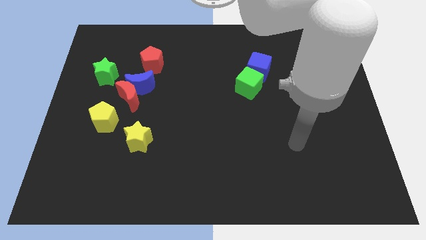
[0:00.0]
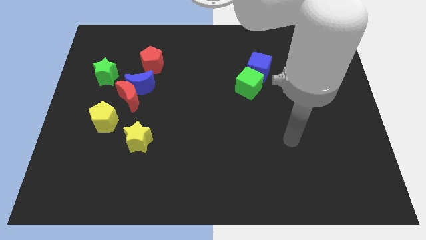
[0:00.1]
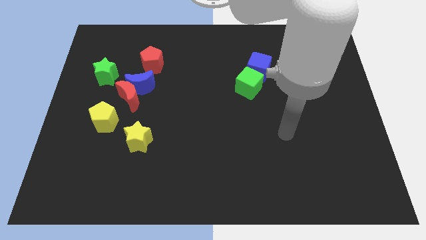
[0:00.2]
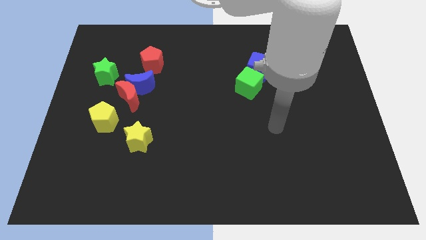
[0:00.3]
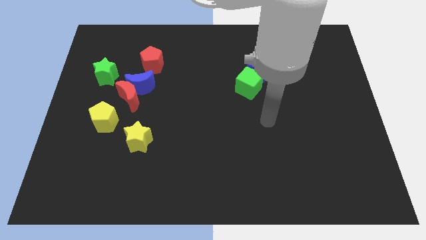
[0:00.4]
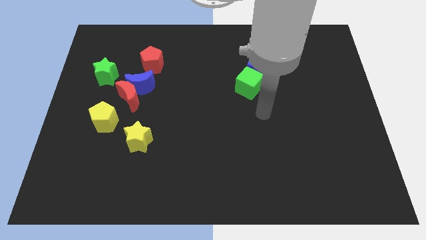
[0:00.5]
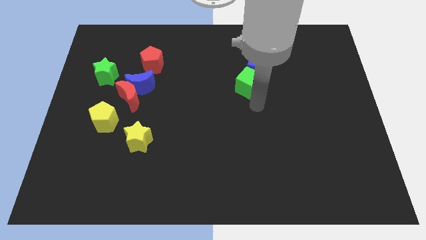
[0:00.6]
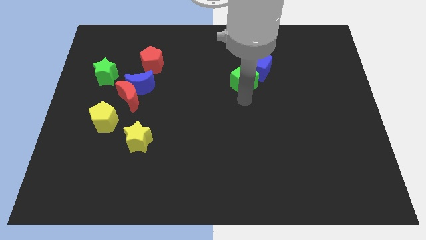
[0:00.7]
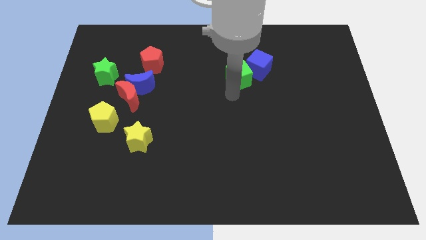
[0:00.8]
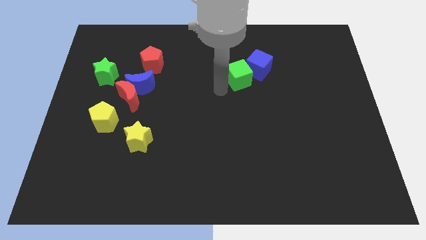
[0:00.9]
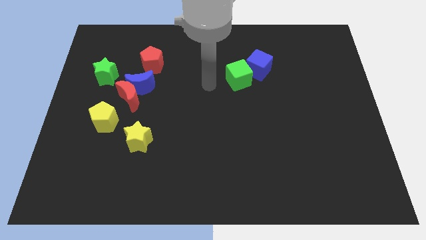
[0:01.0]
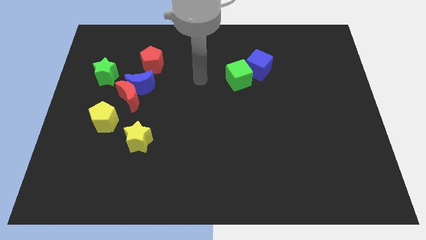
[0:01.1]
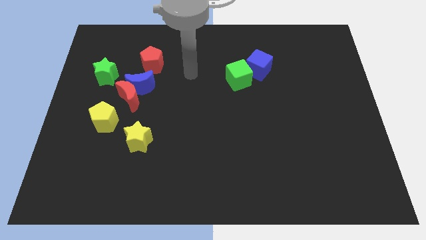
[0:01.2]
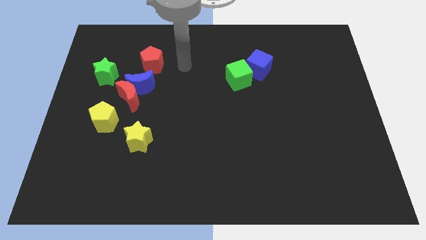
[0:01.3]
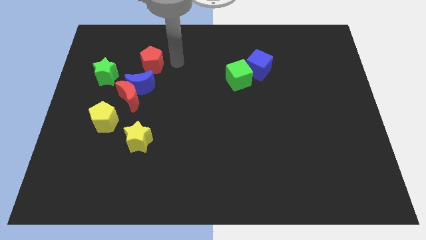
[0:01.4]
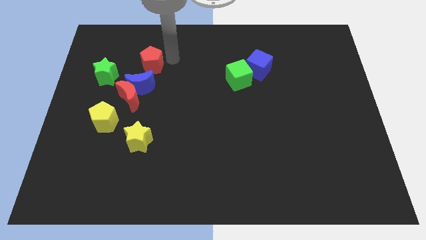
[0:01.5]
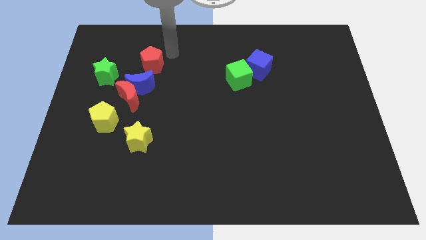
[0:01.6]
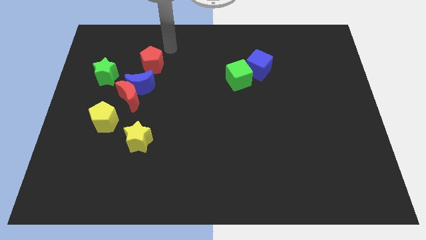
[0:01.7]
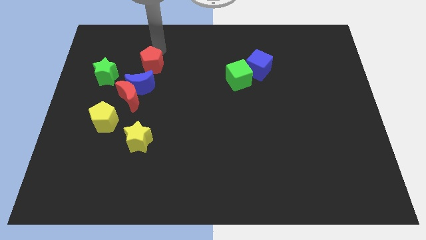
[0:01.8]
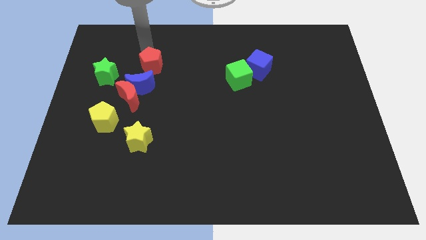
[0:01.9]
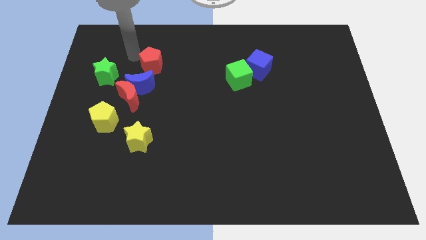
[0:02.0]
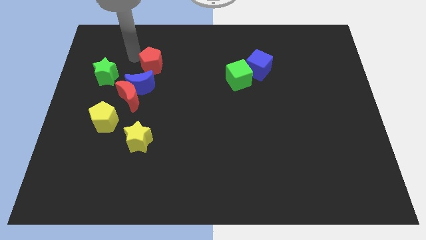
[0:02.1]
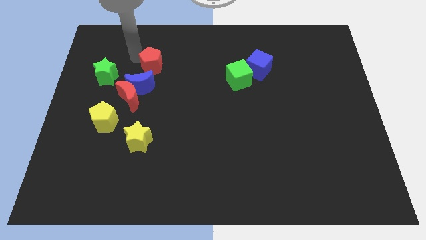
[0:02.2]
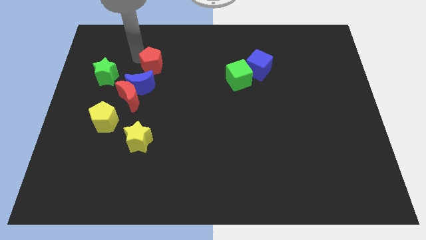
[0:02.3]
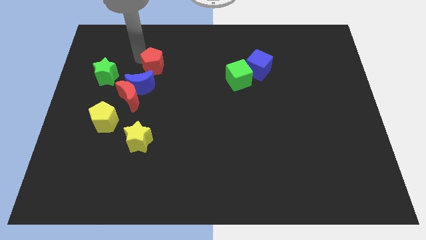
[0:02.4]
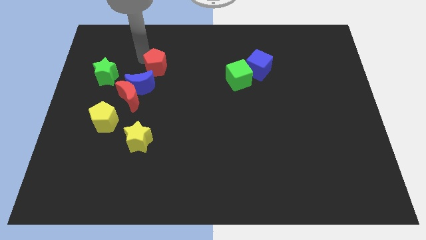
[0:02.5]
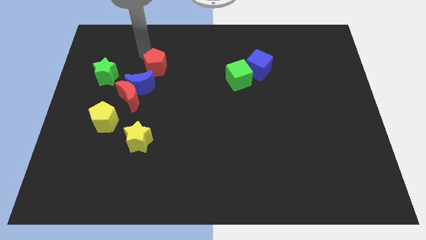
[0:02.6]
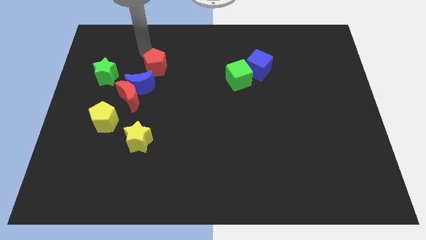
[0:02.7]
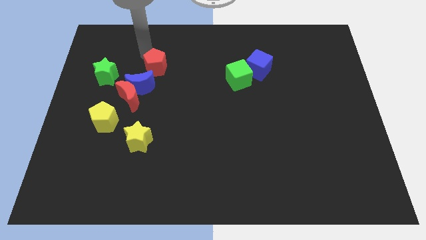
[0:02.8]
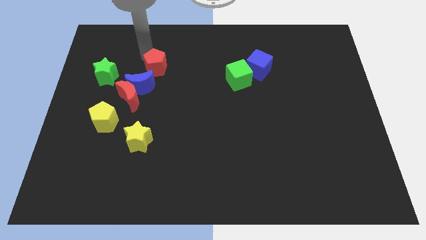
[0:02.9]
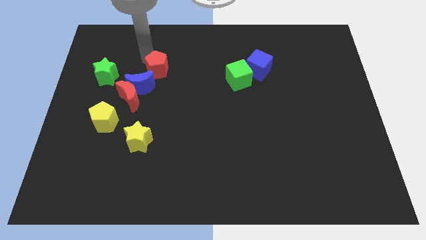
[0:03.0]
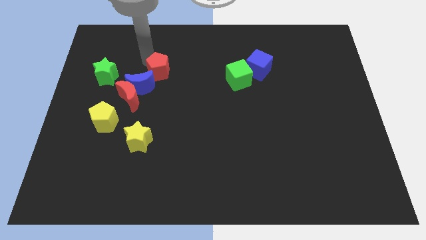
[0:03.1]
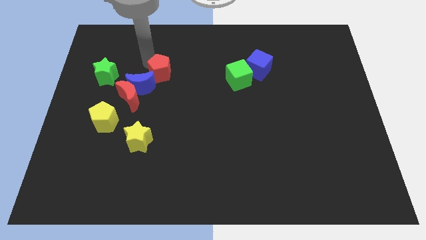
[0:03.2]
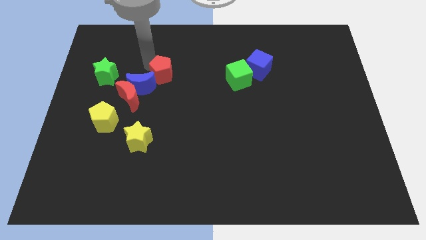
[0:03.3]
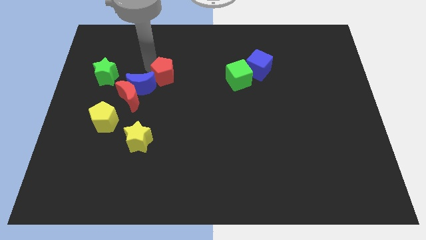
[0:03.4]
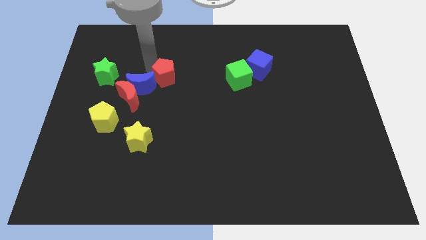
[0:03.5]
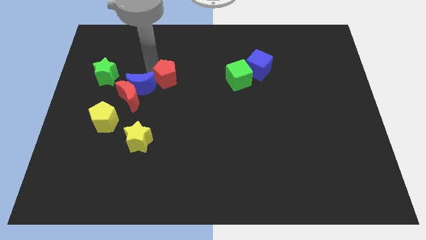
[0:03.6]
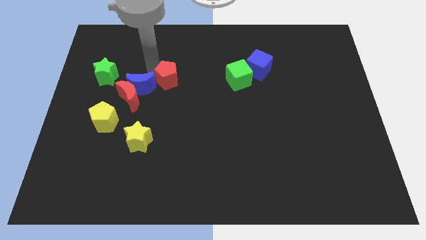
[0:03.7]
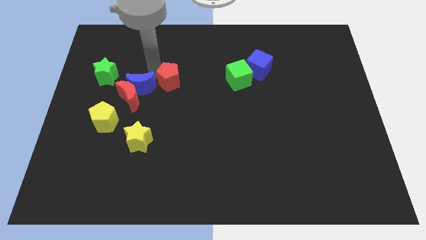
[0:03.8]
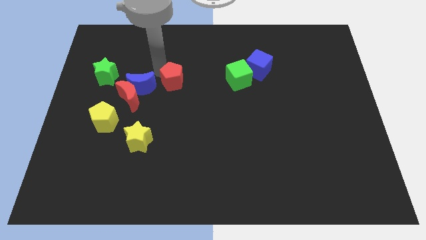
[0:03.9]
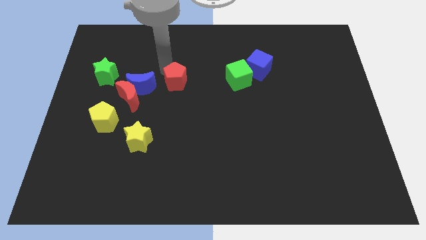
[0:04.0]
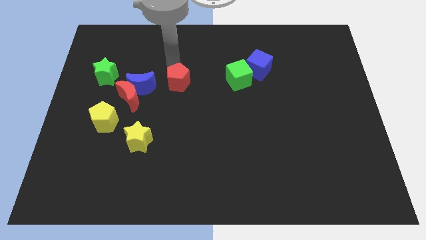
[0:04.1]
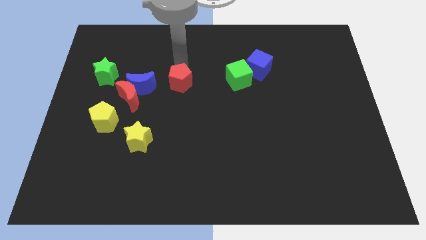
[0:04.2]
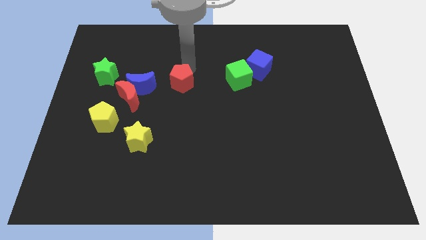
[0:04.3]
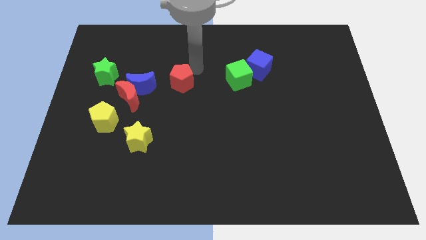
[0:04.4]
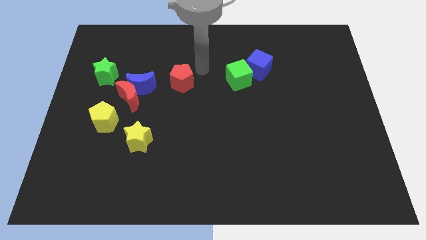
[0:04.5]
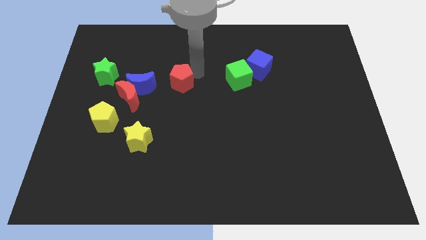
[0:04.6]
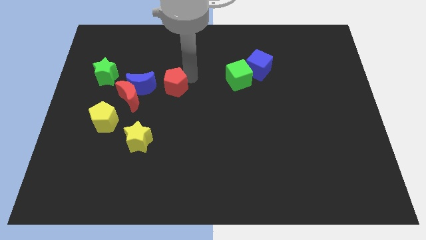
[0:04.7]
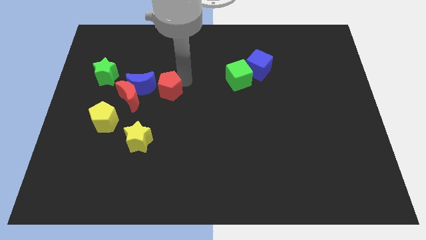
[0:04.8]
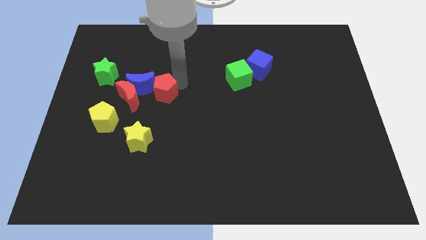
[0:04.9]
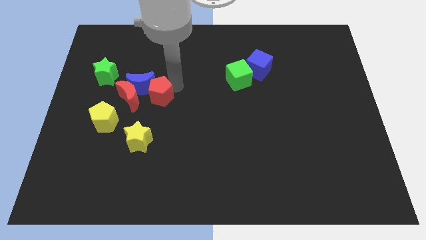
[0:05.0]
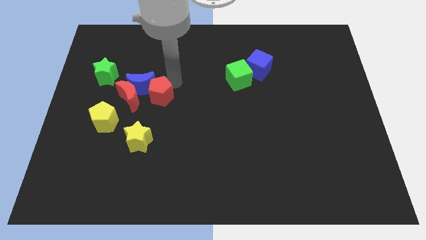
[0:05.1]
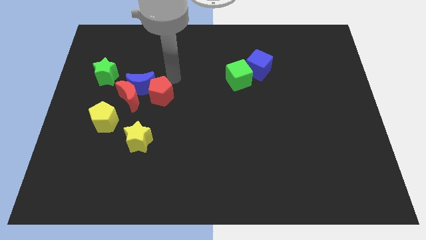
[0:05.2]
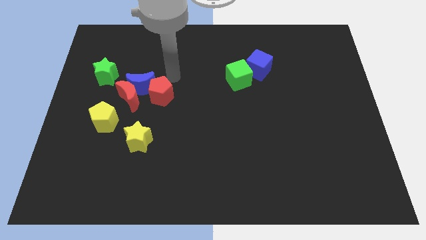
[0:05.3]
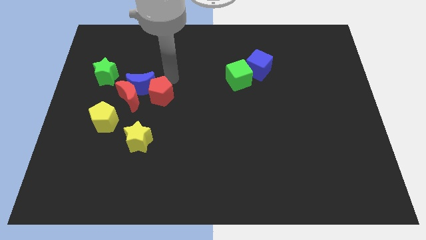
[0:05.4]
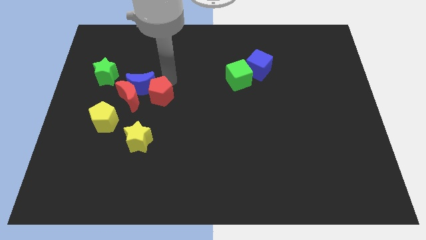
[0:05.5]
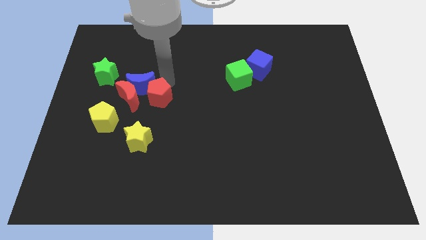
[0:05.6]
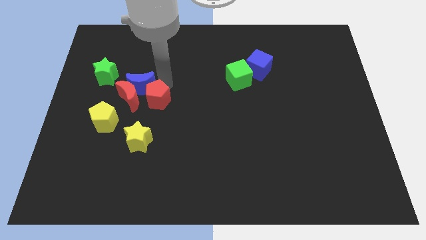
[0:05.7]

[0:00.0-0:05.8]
slide the red pentagon to the bottom right side of the red moon

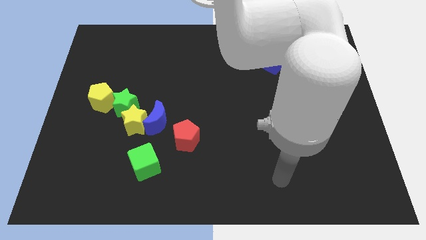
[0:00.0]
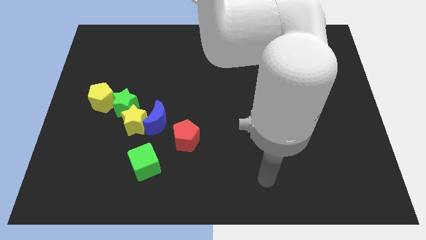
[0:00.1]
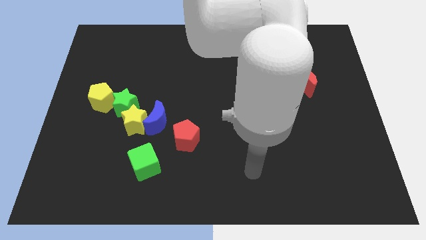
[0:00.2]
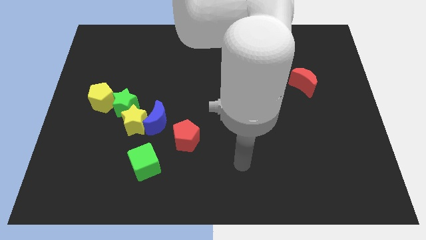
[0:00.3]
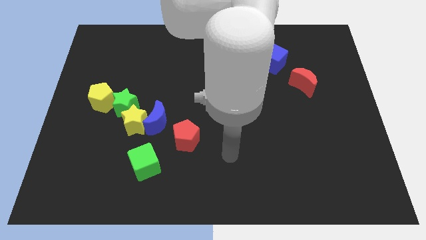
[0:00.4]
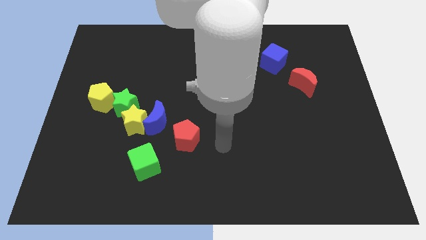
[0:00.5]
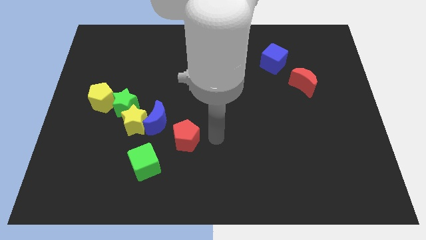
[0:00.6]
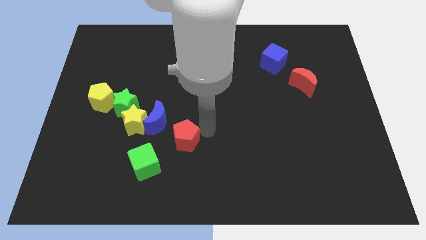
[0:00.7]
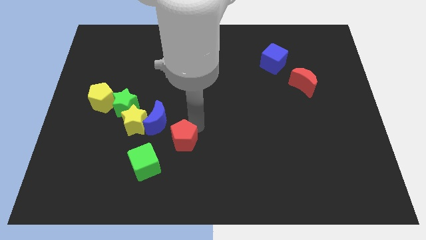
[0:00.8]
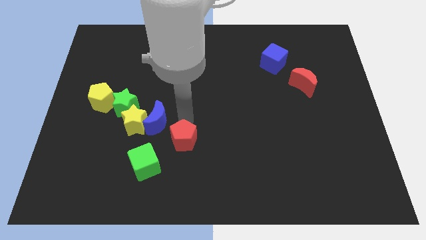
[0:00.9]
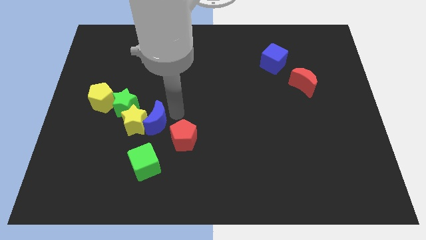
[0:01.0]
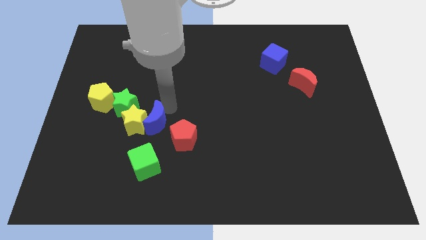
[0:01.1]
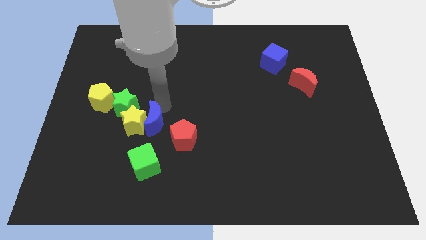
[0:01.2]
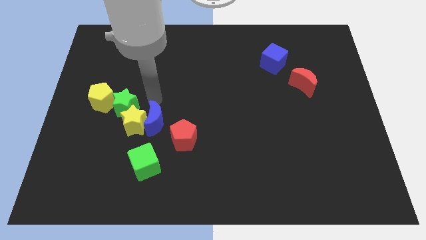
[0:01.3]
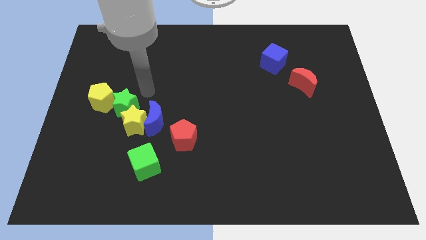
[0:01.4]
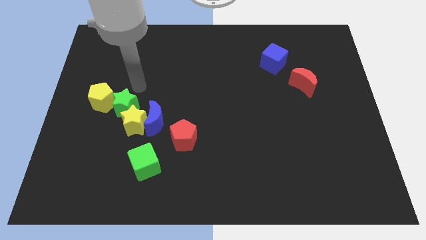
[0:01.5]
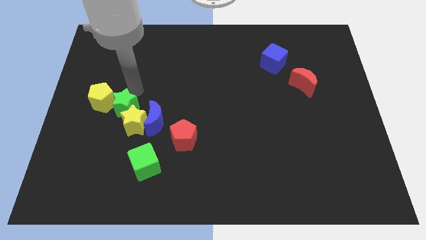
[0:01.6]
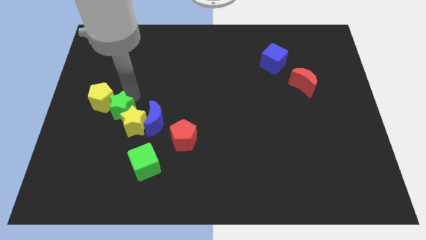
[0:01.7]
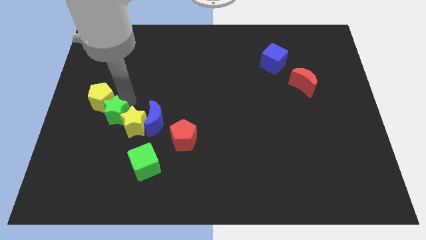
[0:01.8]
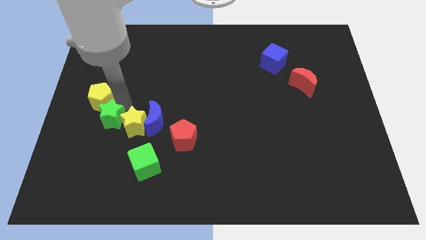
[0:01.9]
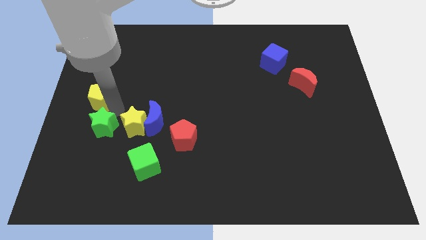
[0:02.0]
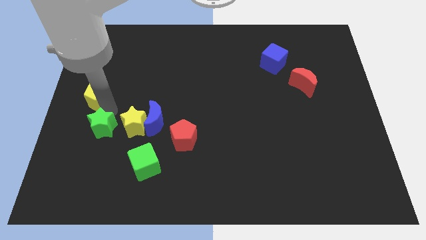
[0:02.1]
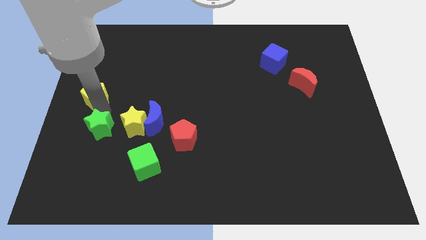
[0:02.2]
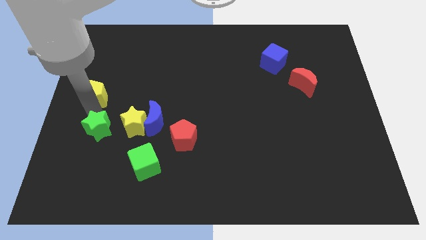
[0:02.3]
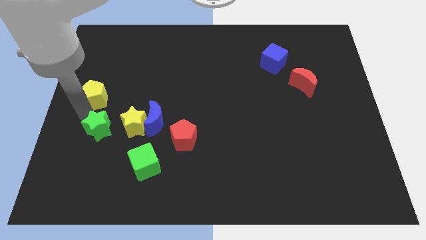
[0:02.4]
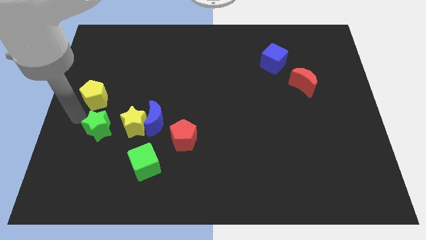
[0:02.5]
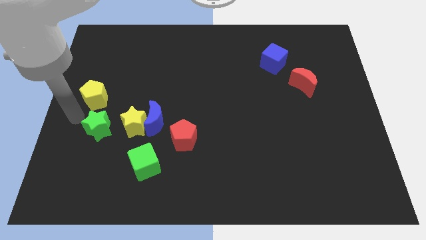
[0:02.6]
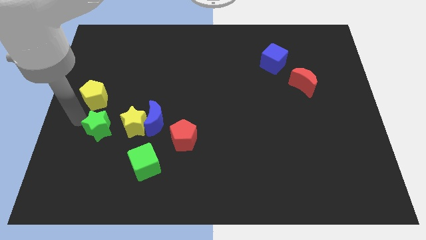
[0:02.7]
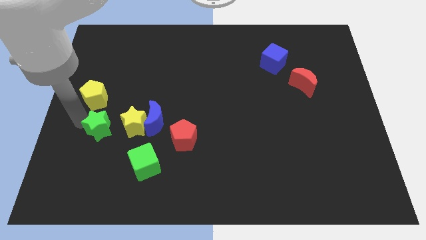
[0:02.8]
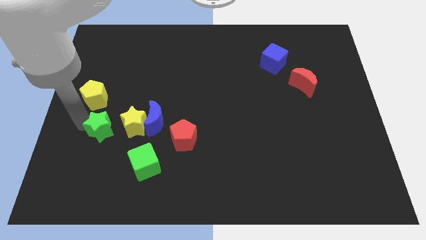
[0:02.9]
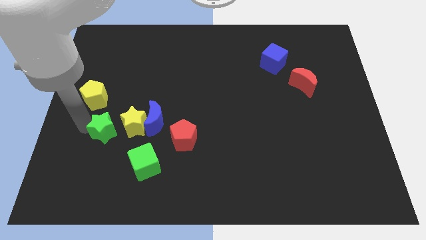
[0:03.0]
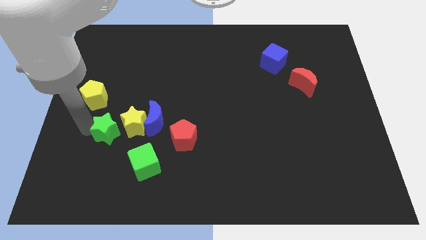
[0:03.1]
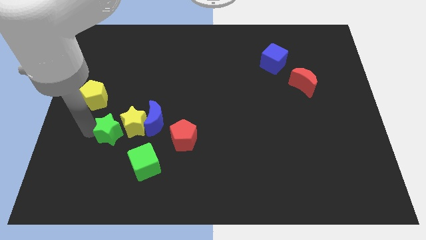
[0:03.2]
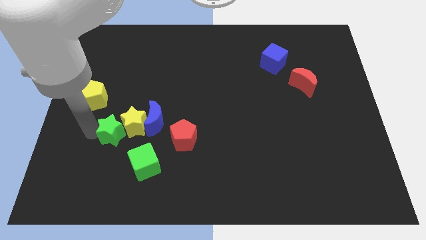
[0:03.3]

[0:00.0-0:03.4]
move the green star diagonally down and to the left of the blue moon
